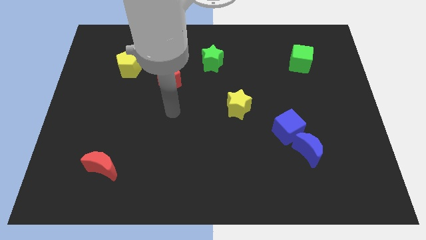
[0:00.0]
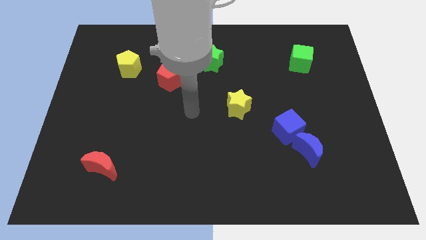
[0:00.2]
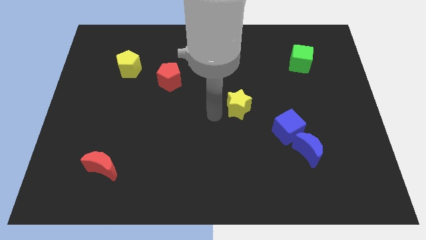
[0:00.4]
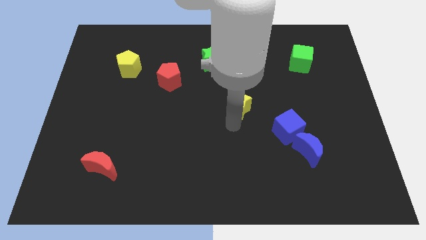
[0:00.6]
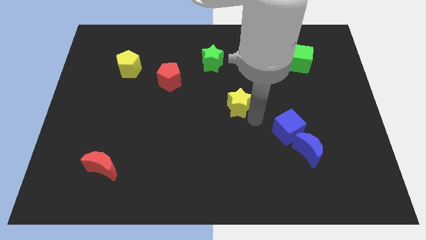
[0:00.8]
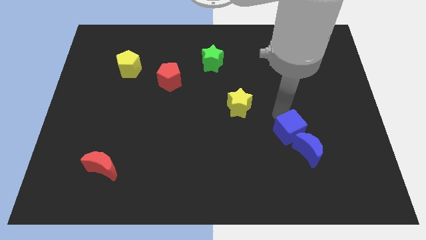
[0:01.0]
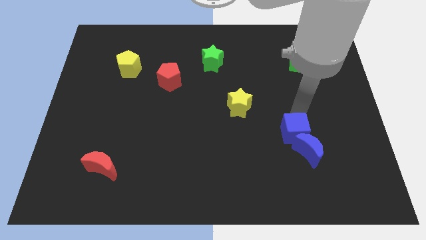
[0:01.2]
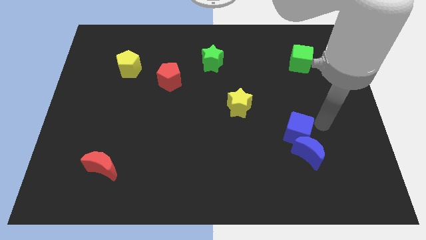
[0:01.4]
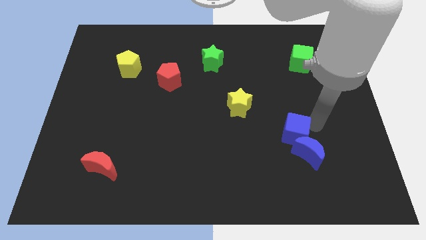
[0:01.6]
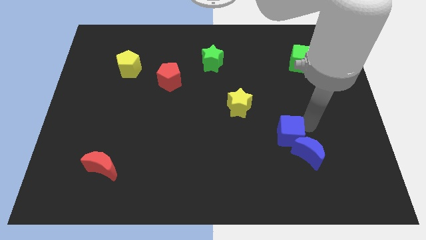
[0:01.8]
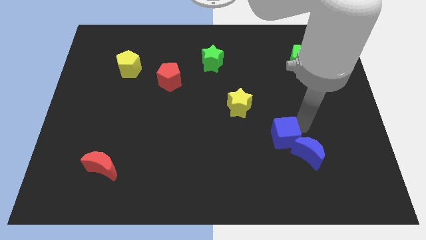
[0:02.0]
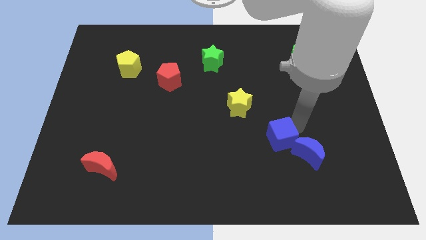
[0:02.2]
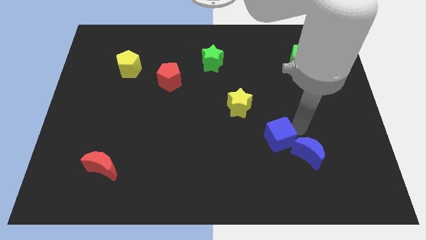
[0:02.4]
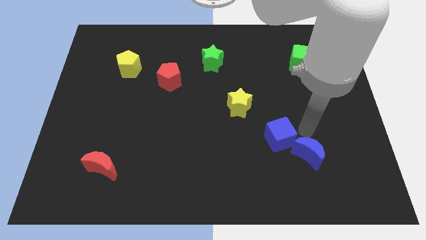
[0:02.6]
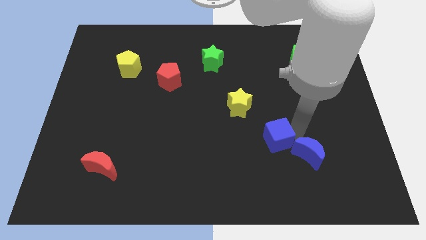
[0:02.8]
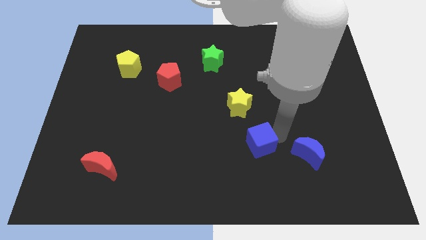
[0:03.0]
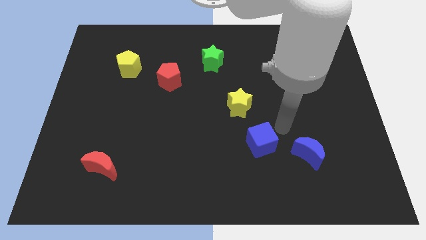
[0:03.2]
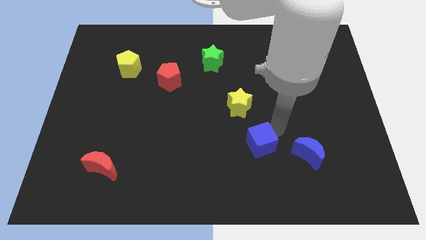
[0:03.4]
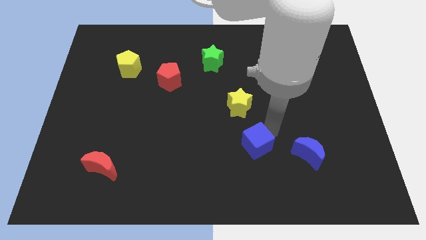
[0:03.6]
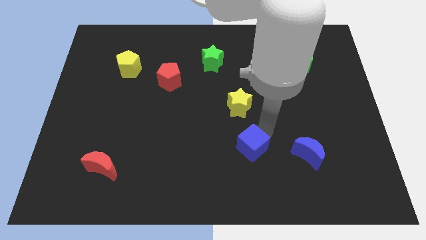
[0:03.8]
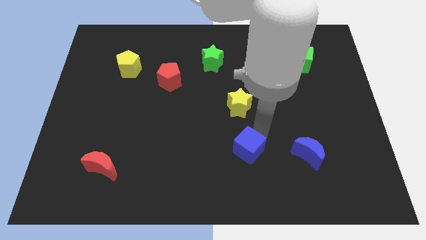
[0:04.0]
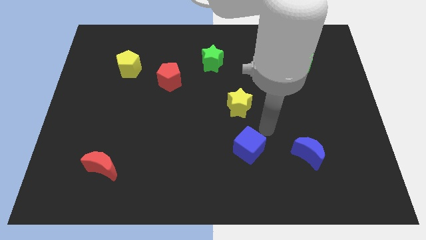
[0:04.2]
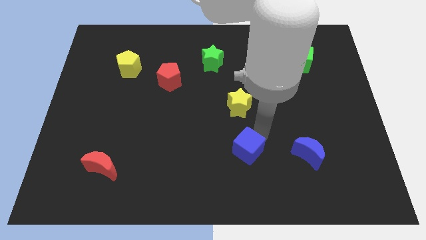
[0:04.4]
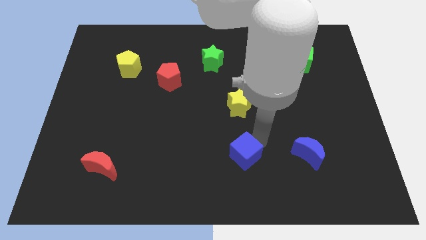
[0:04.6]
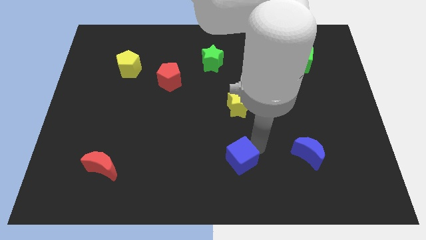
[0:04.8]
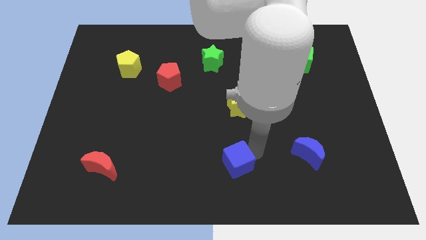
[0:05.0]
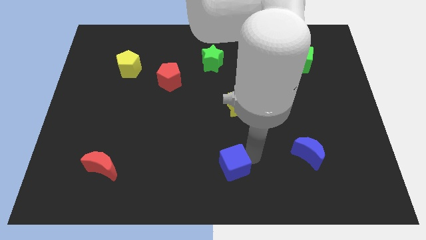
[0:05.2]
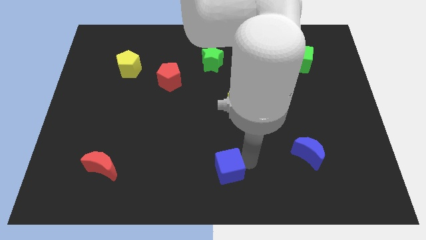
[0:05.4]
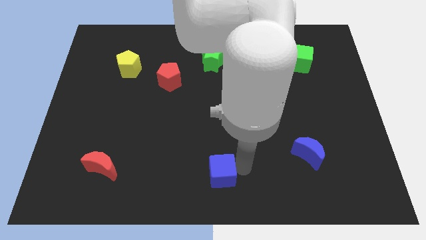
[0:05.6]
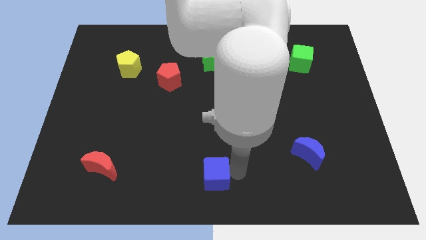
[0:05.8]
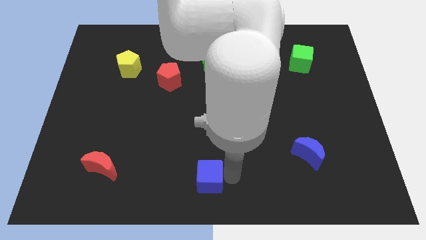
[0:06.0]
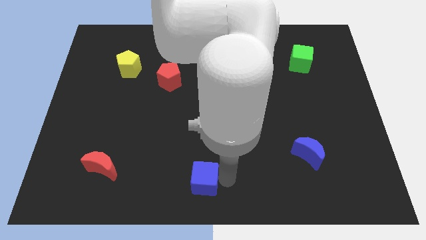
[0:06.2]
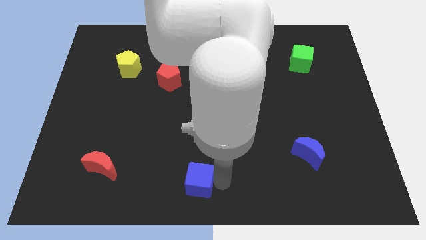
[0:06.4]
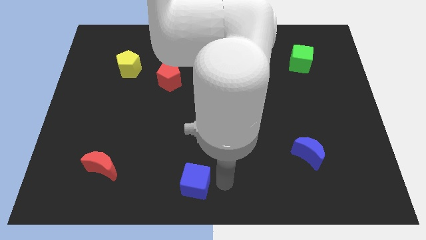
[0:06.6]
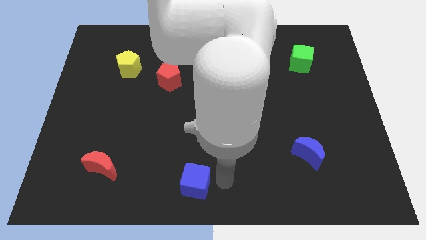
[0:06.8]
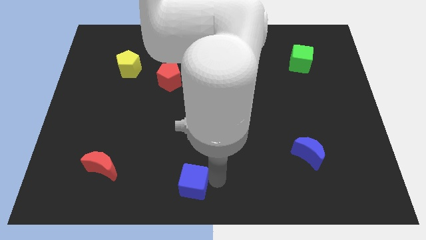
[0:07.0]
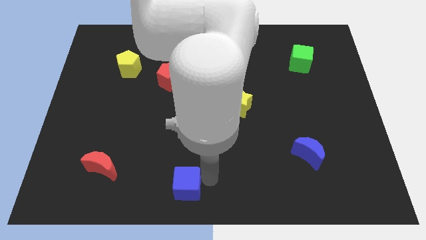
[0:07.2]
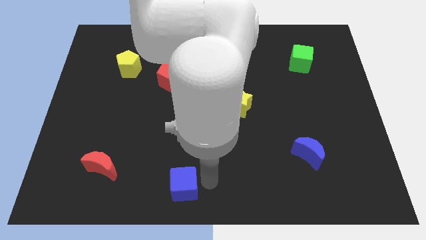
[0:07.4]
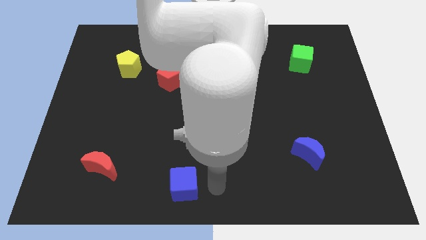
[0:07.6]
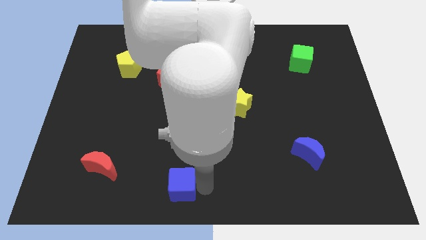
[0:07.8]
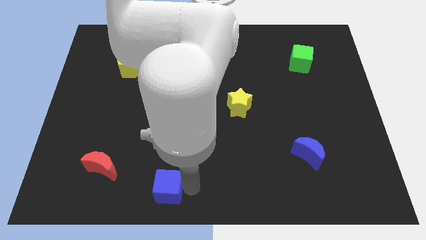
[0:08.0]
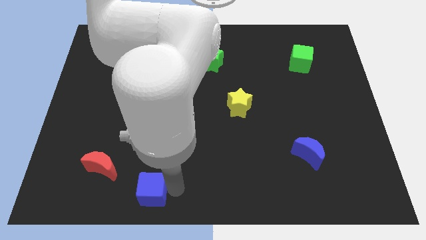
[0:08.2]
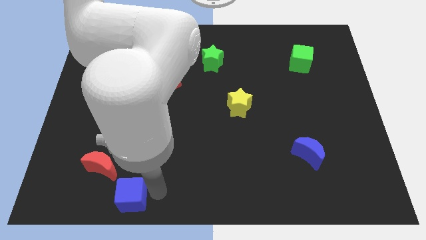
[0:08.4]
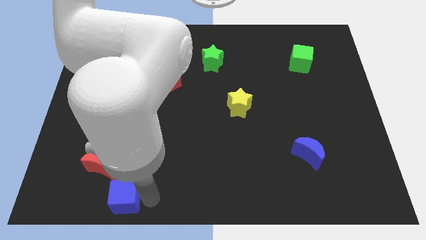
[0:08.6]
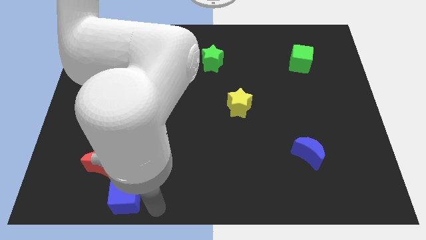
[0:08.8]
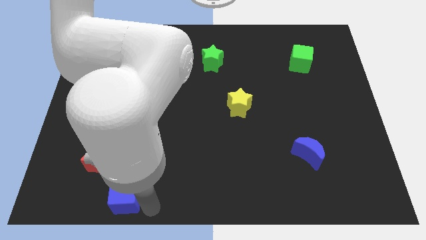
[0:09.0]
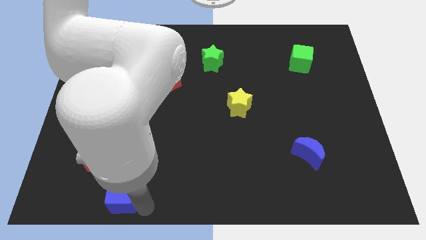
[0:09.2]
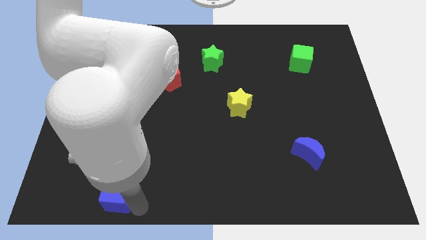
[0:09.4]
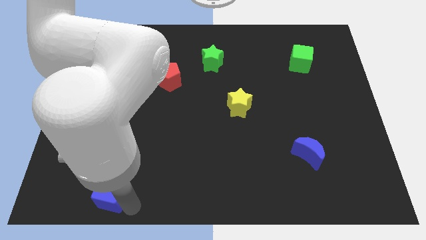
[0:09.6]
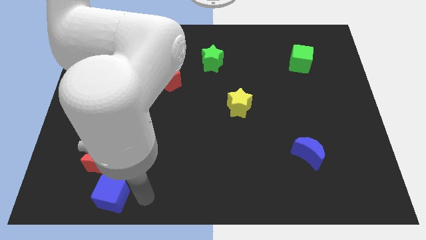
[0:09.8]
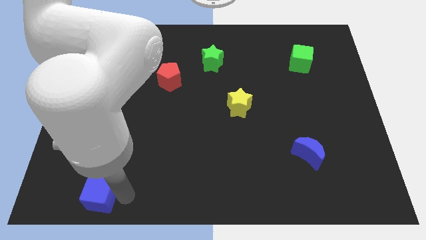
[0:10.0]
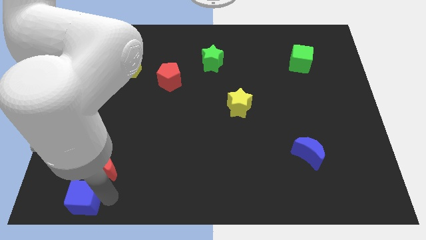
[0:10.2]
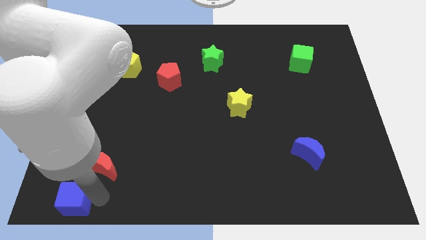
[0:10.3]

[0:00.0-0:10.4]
push the blue cube to the bottom left of the board

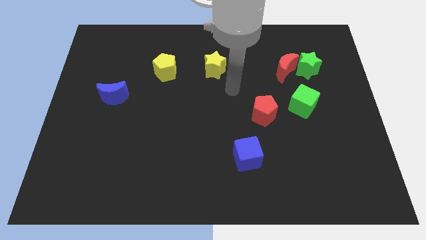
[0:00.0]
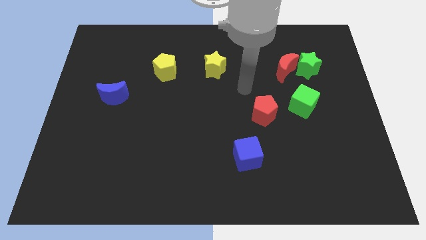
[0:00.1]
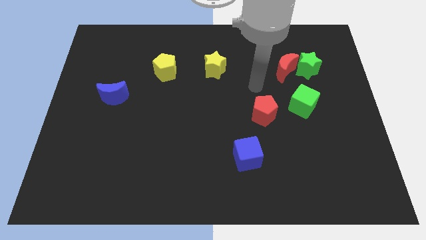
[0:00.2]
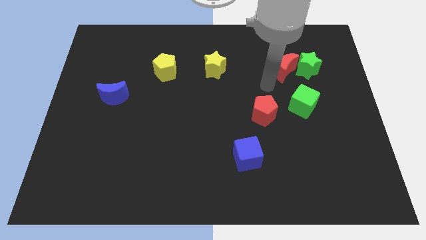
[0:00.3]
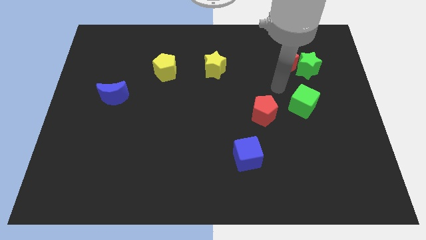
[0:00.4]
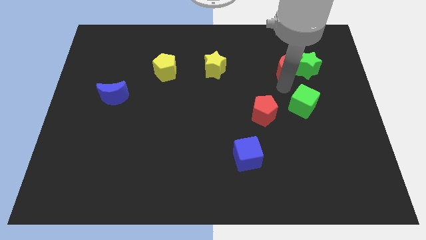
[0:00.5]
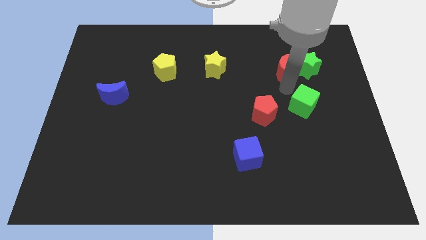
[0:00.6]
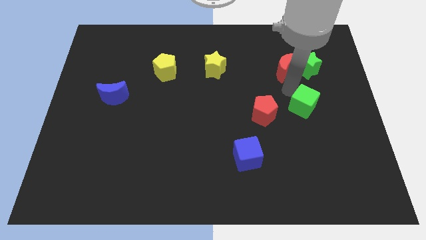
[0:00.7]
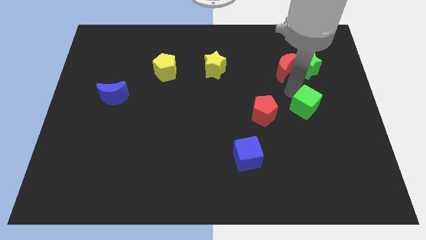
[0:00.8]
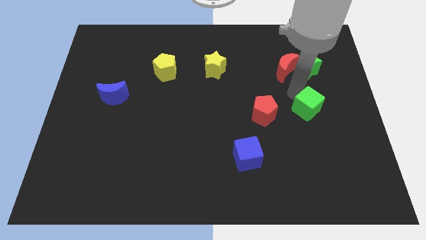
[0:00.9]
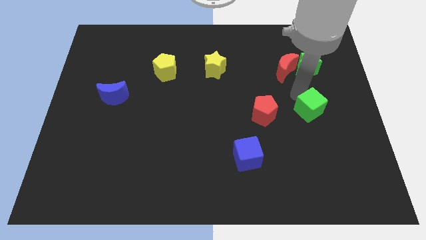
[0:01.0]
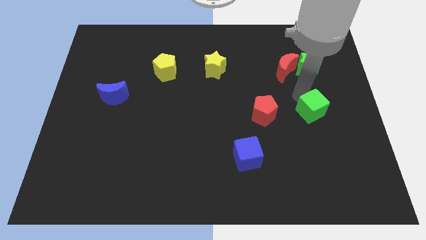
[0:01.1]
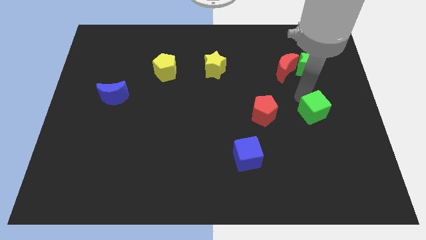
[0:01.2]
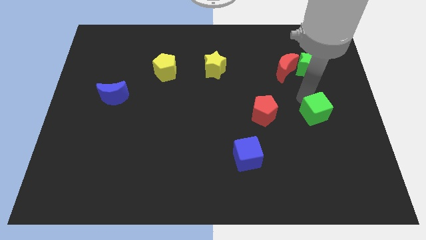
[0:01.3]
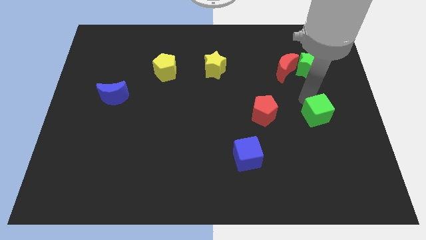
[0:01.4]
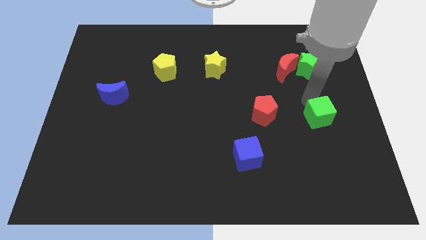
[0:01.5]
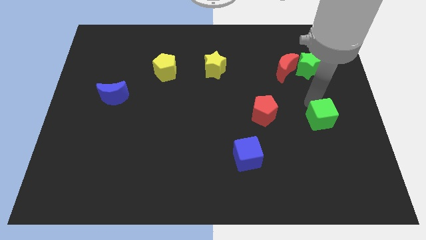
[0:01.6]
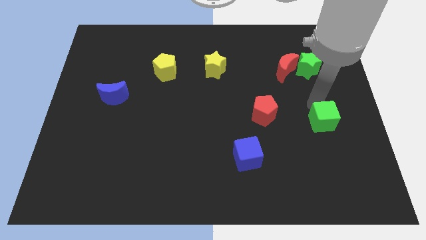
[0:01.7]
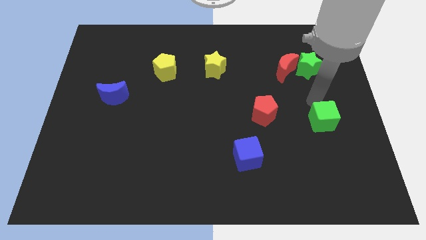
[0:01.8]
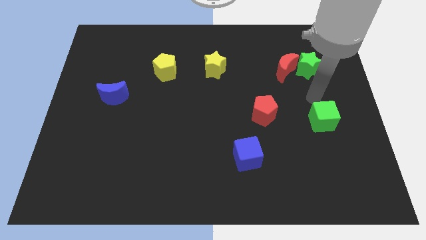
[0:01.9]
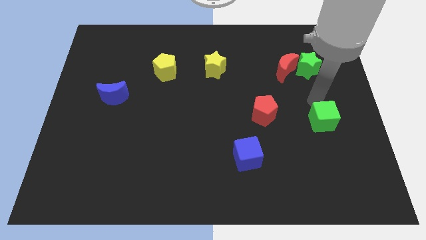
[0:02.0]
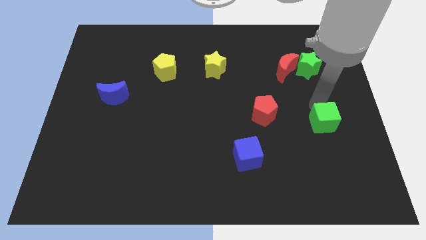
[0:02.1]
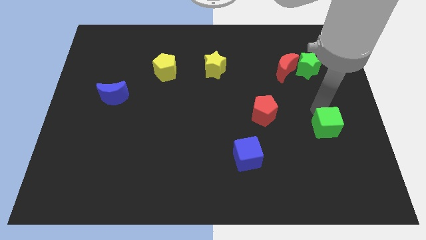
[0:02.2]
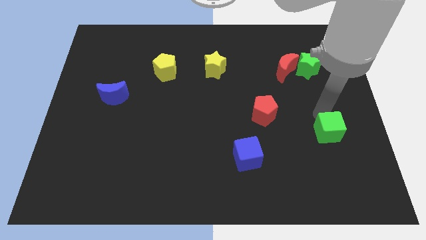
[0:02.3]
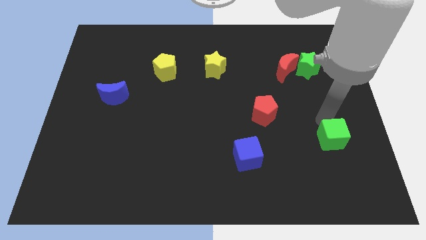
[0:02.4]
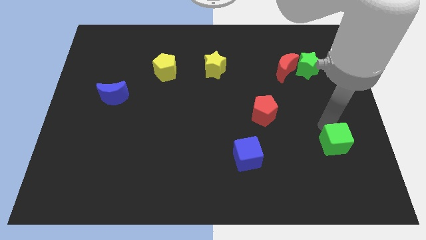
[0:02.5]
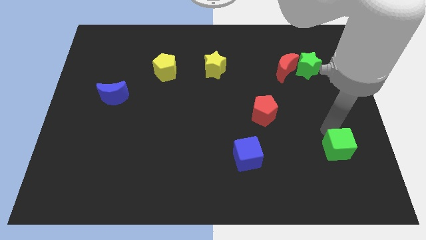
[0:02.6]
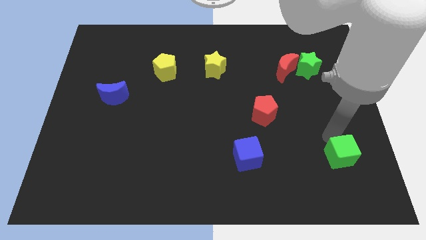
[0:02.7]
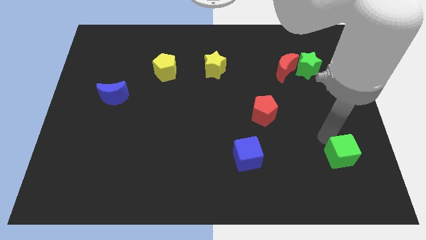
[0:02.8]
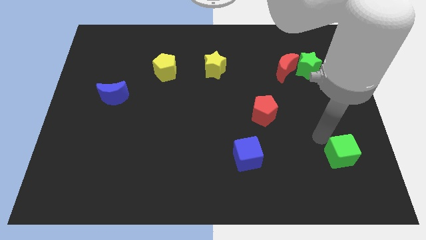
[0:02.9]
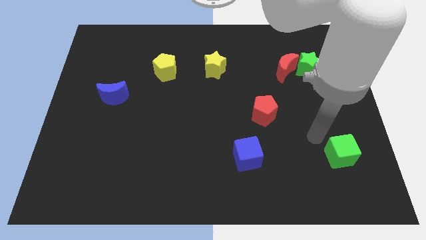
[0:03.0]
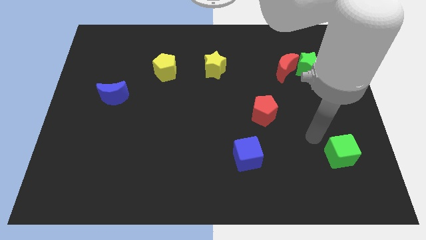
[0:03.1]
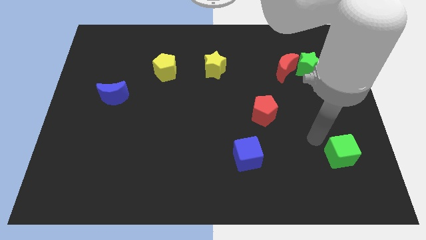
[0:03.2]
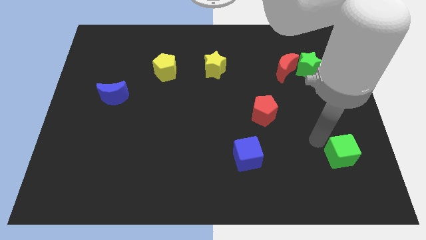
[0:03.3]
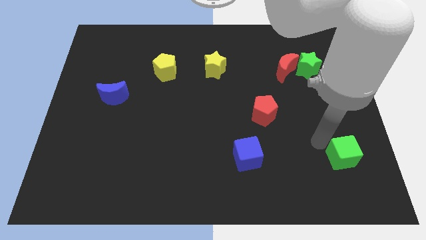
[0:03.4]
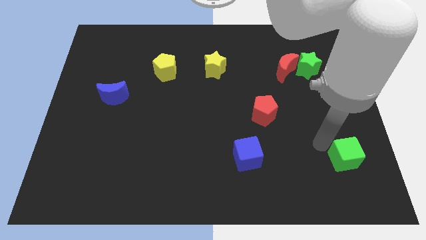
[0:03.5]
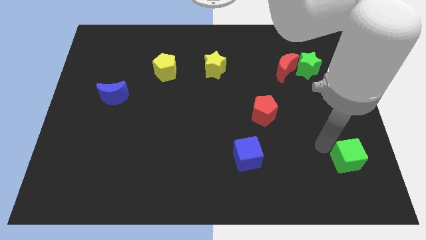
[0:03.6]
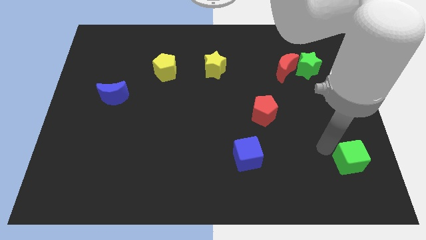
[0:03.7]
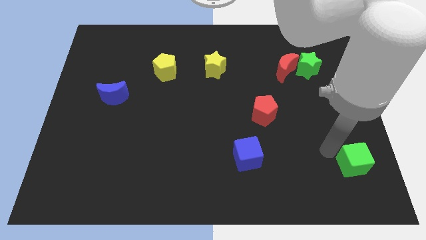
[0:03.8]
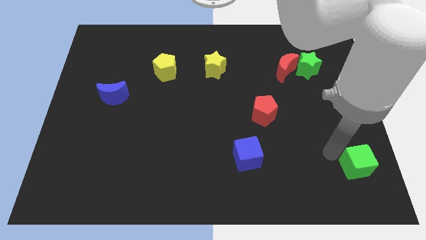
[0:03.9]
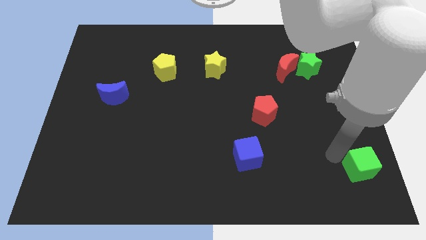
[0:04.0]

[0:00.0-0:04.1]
put the green cube to the bottom right of the board
